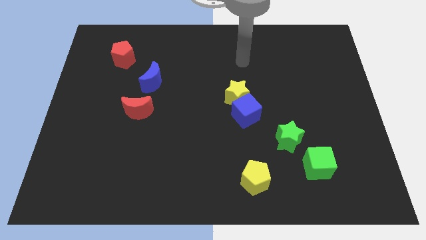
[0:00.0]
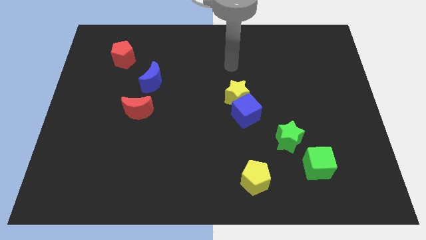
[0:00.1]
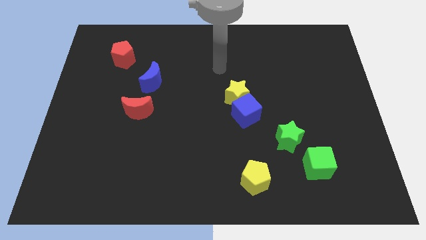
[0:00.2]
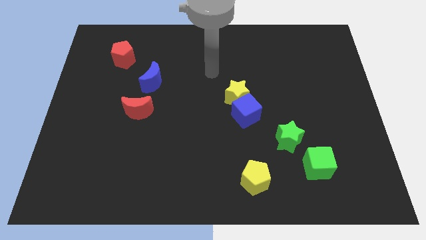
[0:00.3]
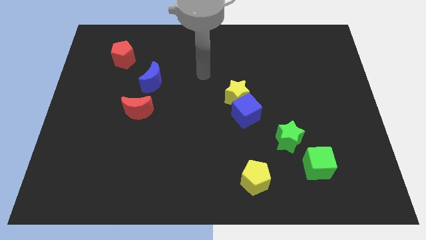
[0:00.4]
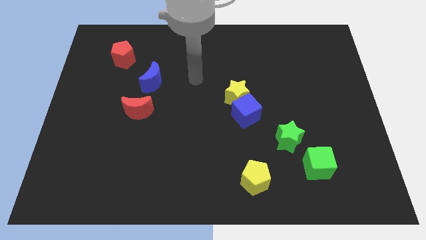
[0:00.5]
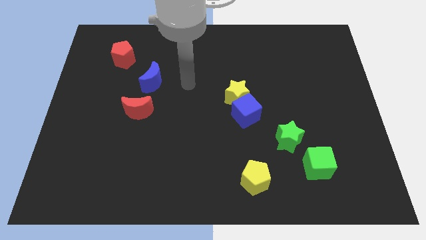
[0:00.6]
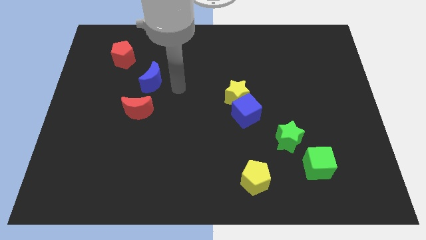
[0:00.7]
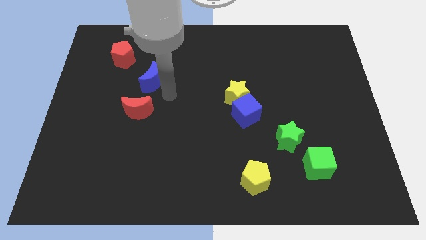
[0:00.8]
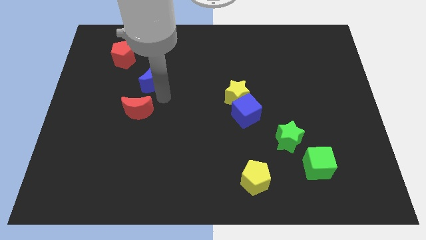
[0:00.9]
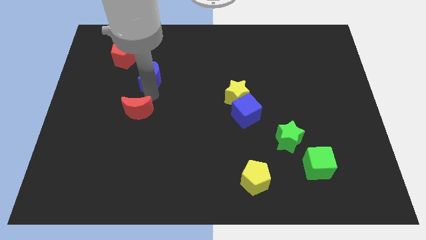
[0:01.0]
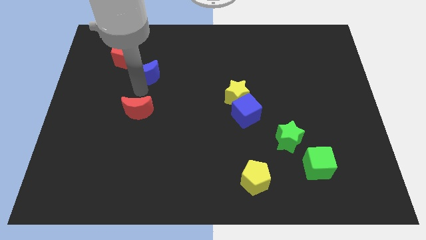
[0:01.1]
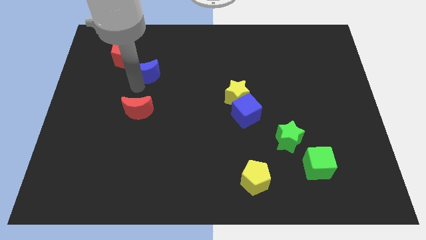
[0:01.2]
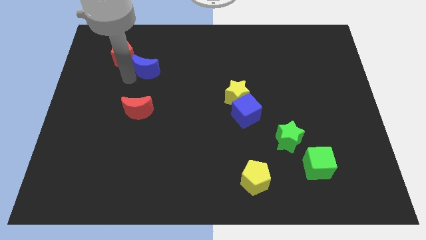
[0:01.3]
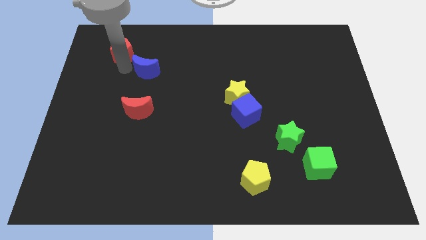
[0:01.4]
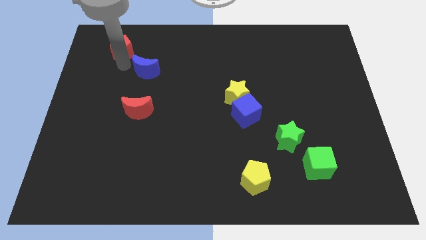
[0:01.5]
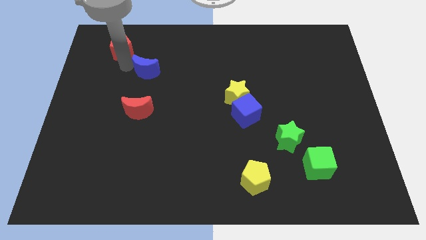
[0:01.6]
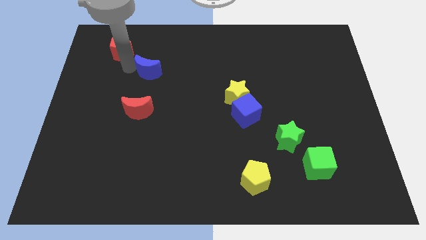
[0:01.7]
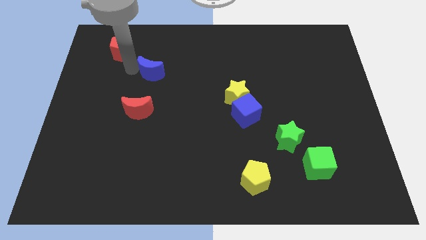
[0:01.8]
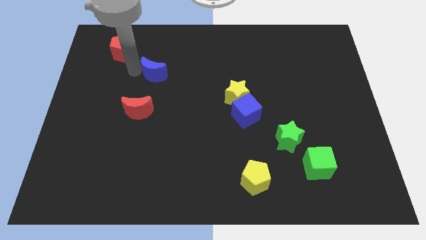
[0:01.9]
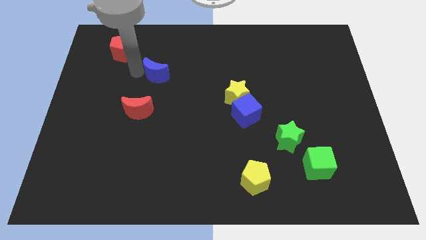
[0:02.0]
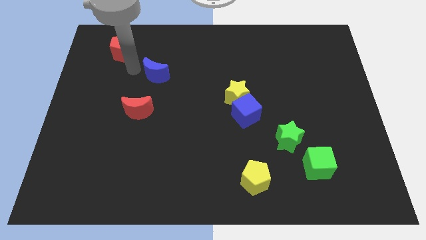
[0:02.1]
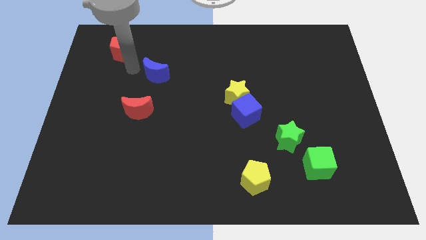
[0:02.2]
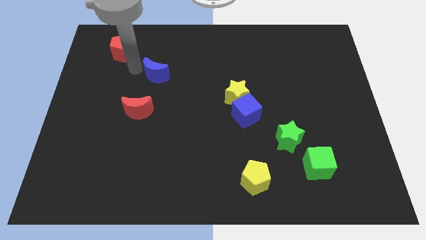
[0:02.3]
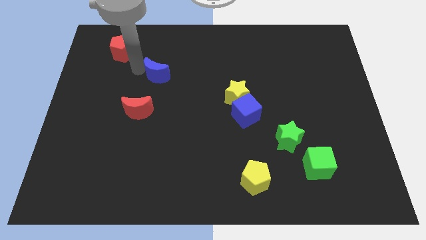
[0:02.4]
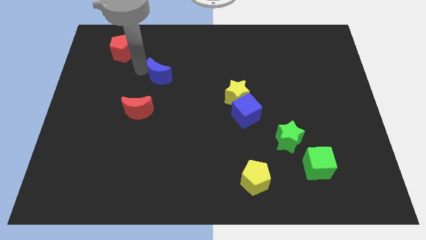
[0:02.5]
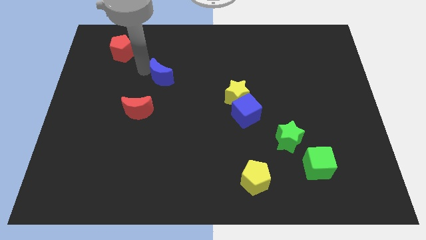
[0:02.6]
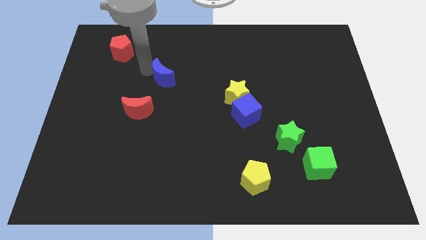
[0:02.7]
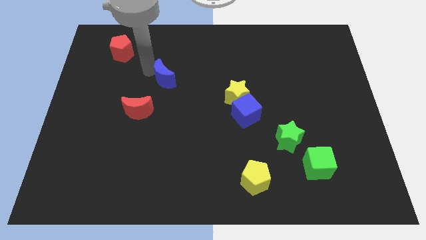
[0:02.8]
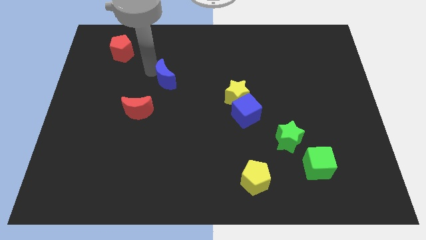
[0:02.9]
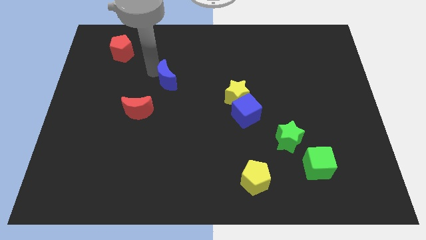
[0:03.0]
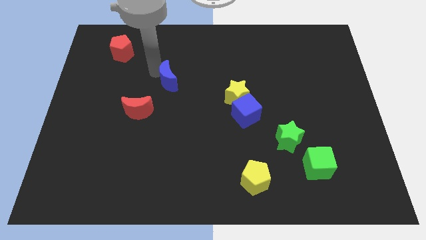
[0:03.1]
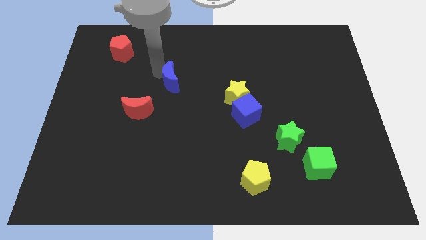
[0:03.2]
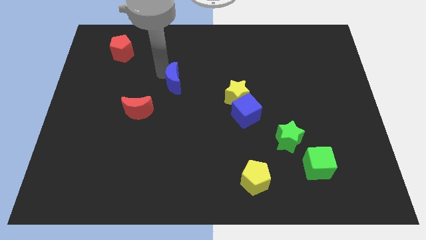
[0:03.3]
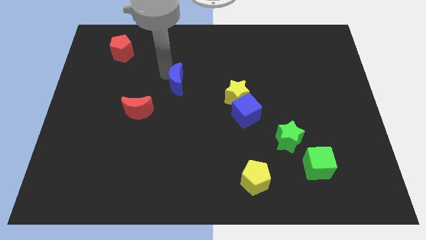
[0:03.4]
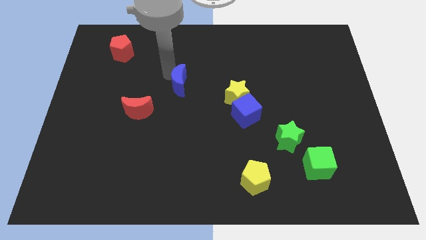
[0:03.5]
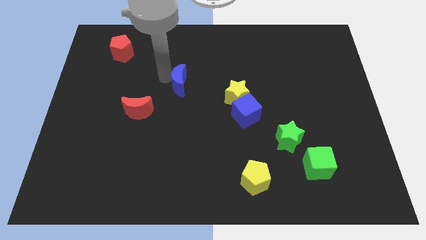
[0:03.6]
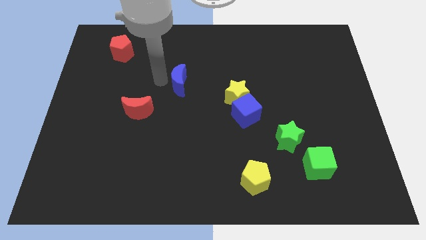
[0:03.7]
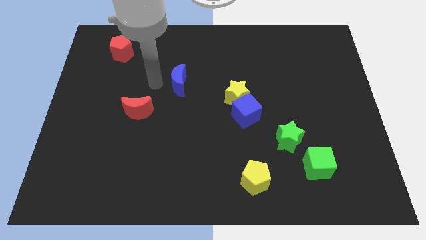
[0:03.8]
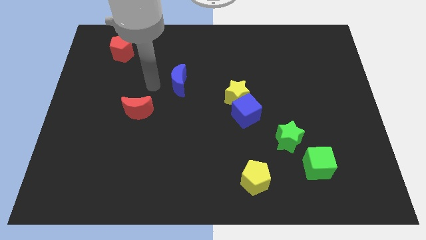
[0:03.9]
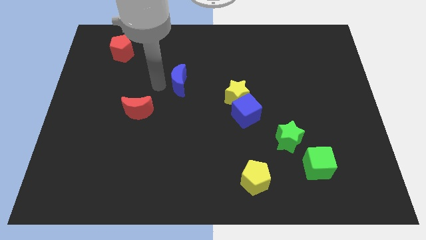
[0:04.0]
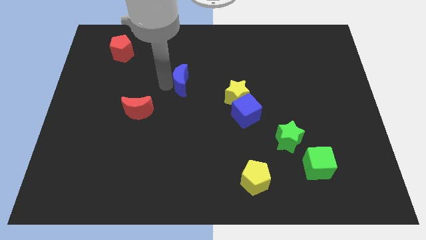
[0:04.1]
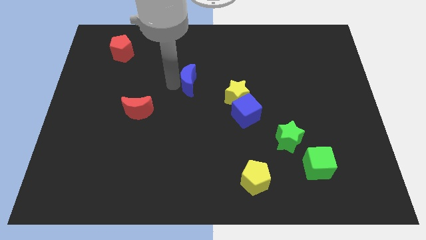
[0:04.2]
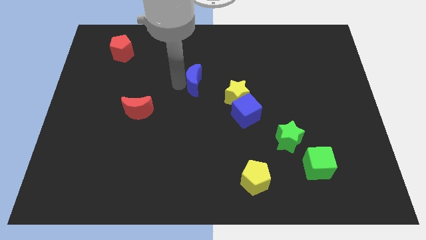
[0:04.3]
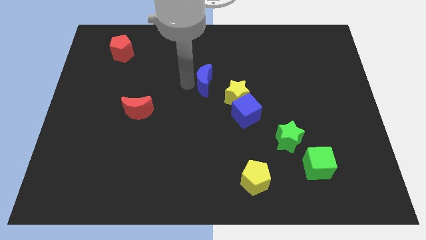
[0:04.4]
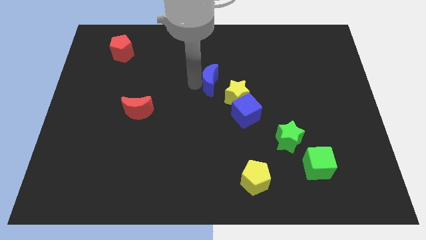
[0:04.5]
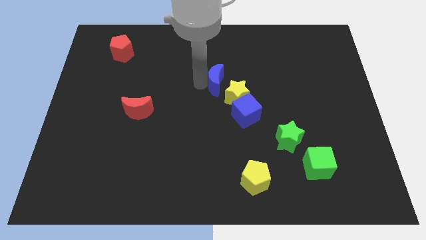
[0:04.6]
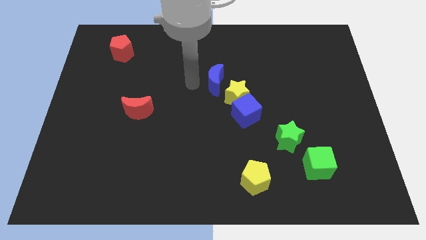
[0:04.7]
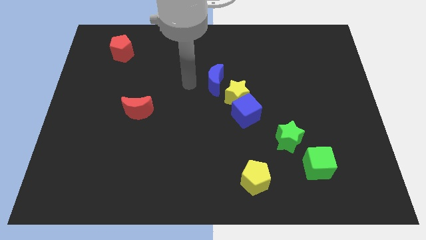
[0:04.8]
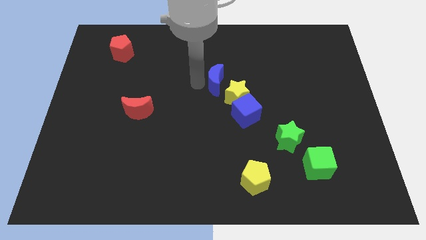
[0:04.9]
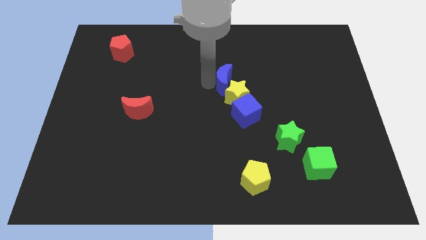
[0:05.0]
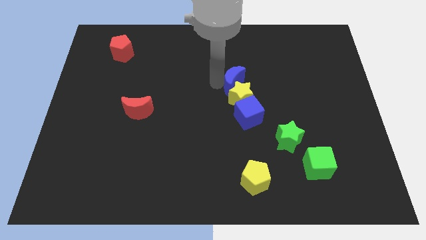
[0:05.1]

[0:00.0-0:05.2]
push the blue moon right

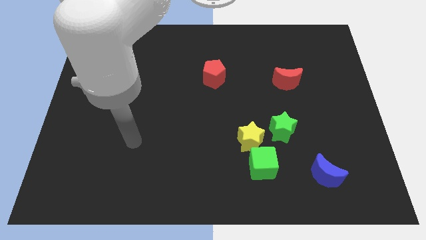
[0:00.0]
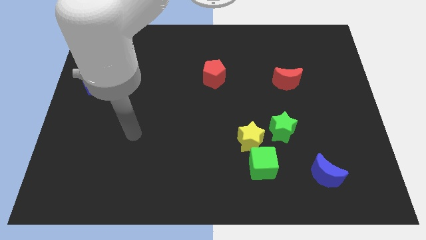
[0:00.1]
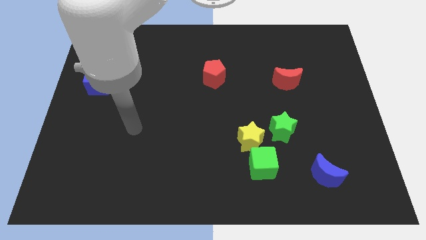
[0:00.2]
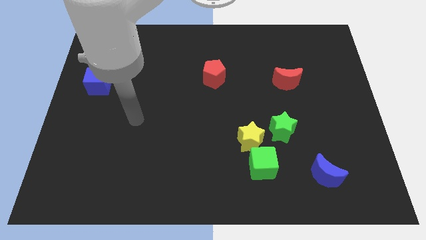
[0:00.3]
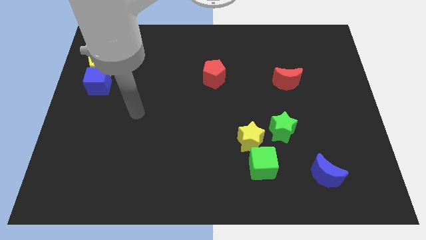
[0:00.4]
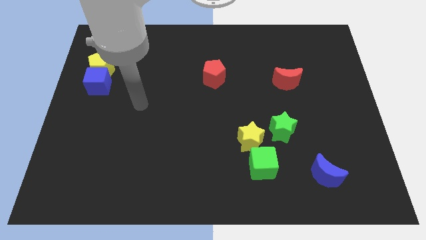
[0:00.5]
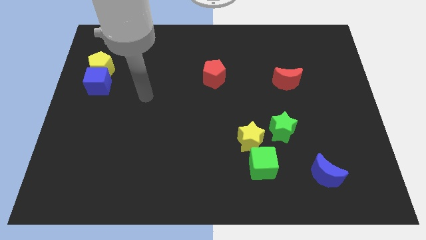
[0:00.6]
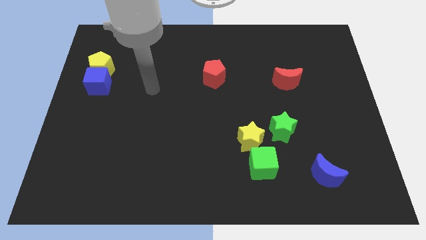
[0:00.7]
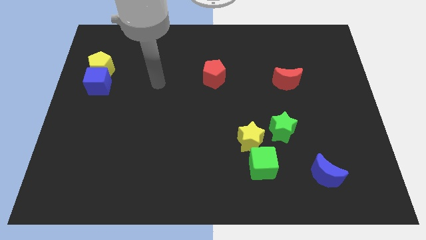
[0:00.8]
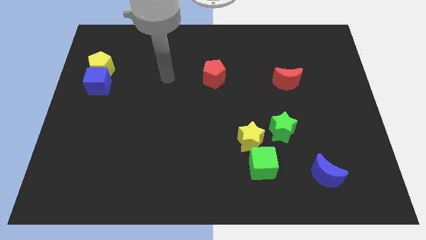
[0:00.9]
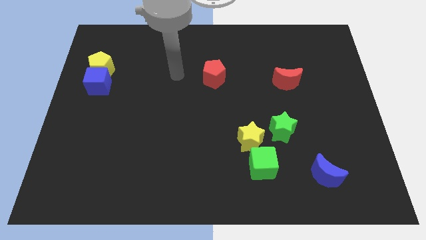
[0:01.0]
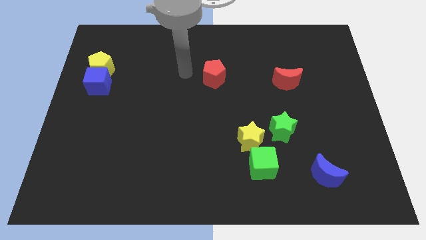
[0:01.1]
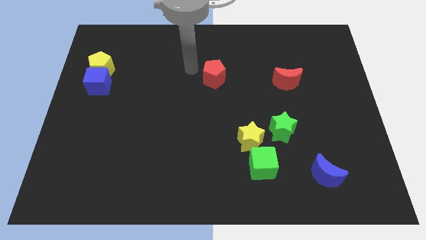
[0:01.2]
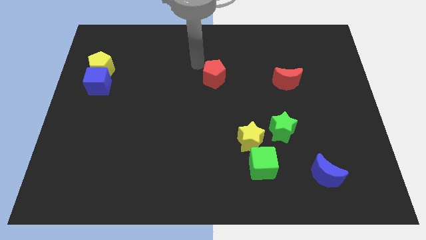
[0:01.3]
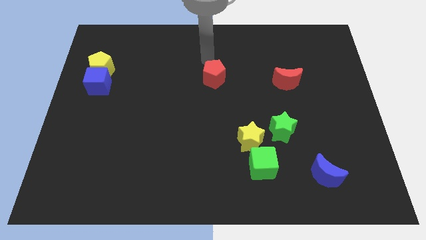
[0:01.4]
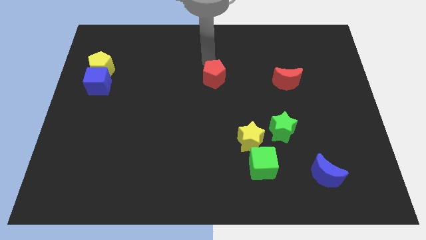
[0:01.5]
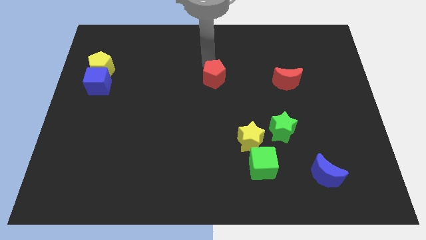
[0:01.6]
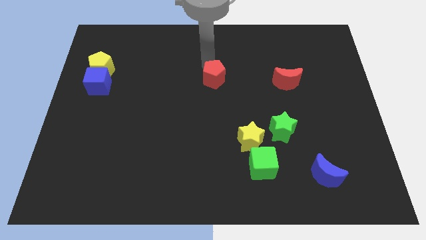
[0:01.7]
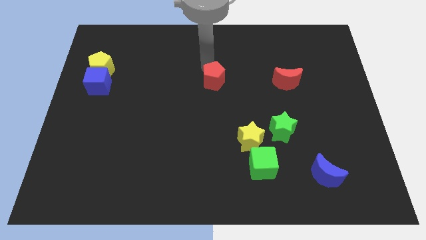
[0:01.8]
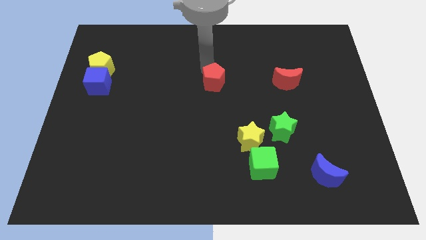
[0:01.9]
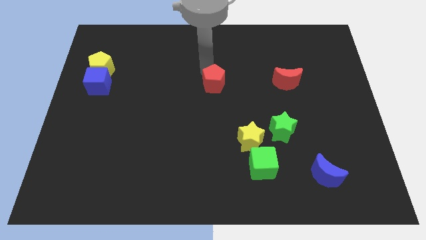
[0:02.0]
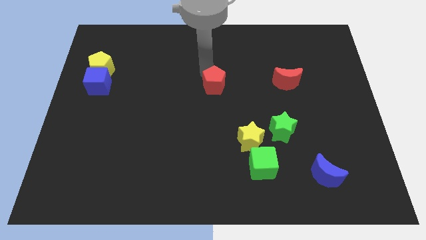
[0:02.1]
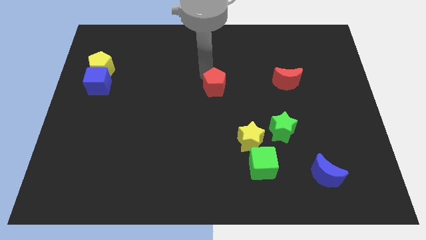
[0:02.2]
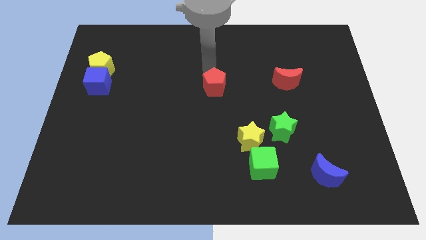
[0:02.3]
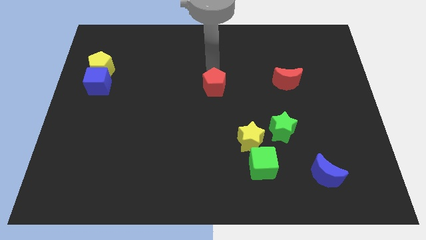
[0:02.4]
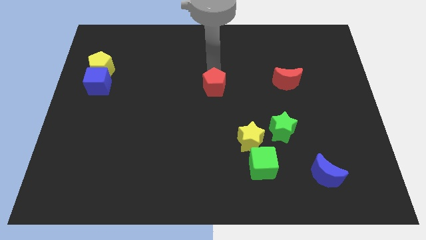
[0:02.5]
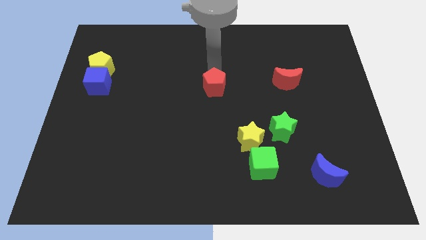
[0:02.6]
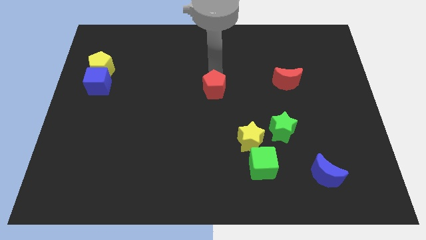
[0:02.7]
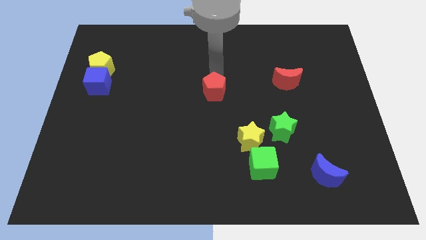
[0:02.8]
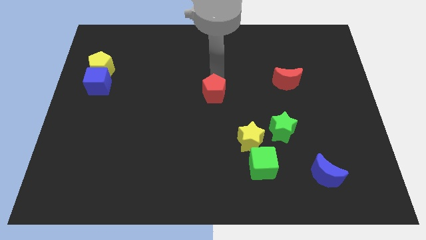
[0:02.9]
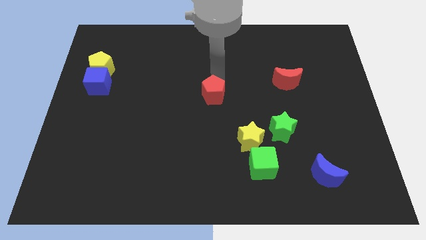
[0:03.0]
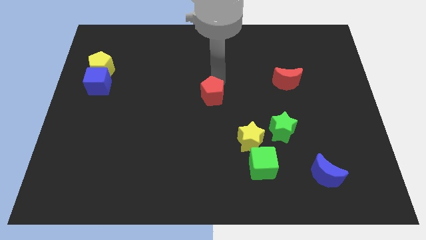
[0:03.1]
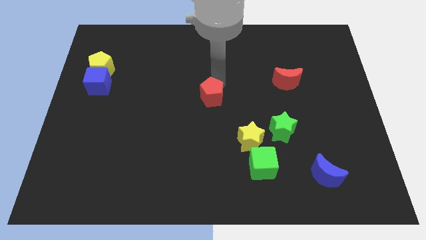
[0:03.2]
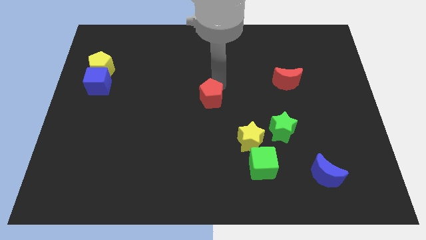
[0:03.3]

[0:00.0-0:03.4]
slightly push the red pentagon down
